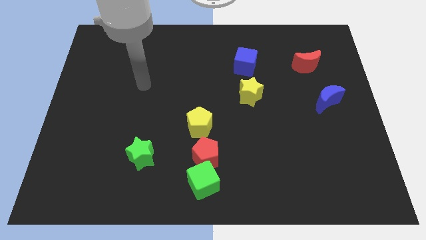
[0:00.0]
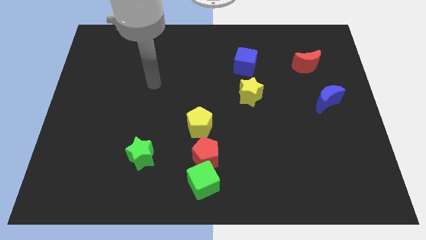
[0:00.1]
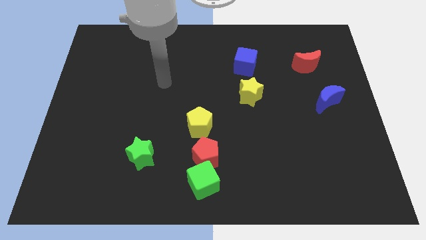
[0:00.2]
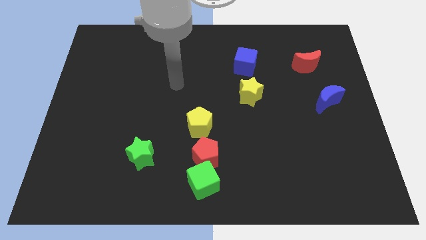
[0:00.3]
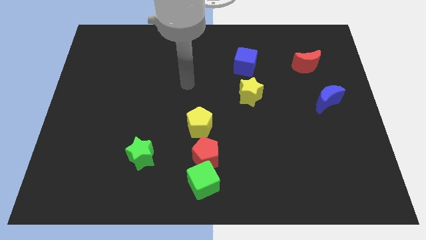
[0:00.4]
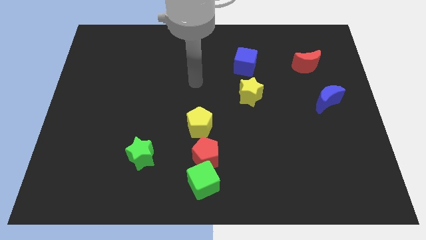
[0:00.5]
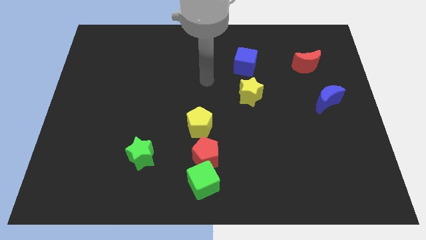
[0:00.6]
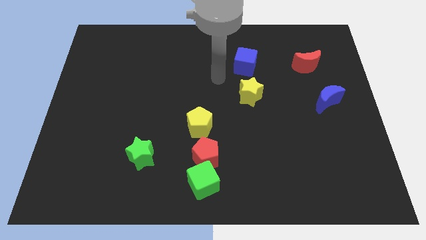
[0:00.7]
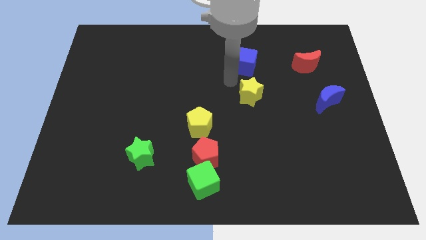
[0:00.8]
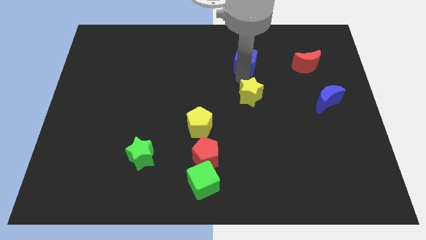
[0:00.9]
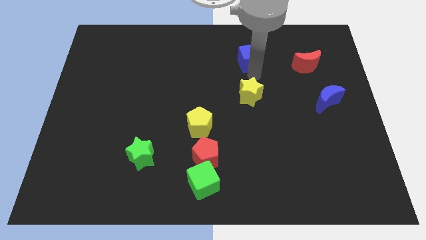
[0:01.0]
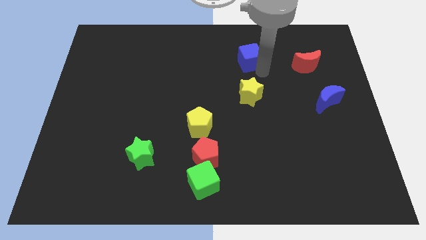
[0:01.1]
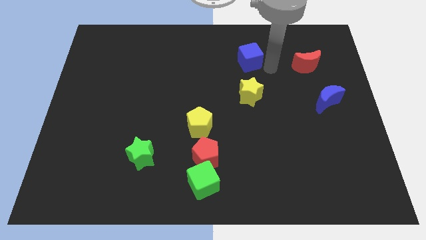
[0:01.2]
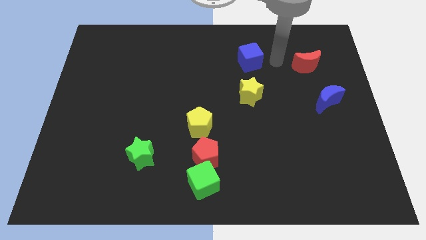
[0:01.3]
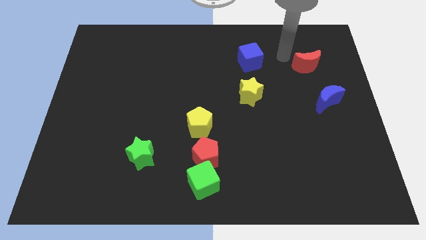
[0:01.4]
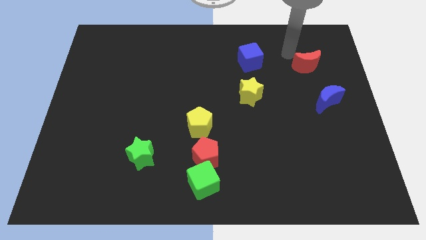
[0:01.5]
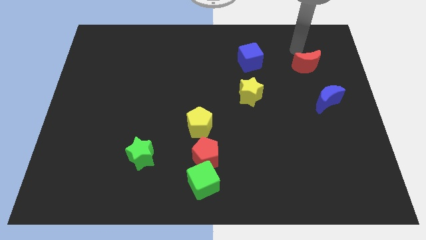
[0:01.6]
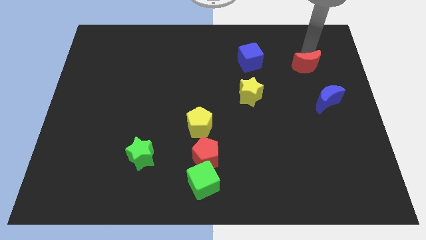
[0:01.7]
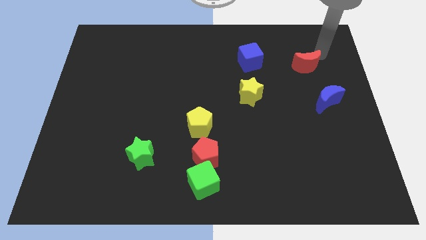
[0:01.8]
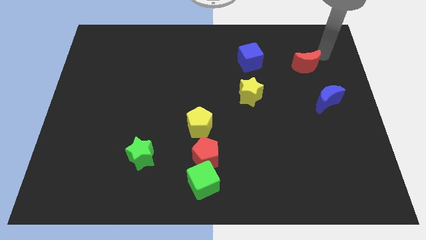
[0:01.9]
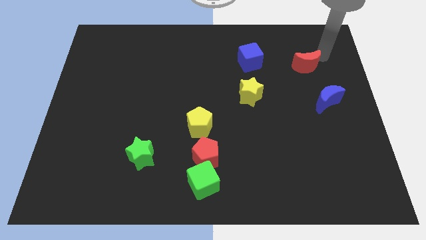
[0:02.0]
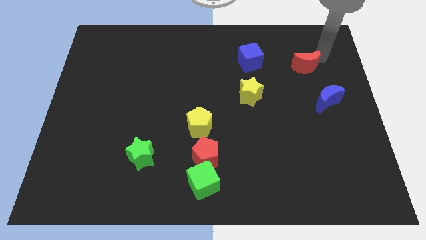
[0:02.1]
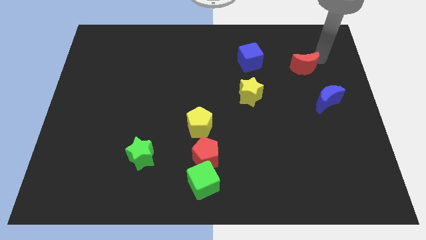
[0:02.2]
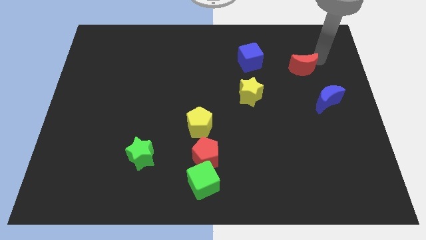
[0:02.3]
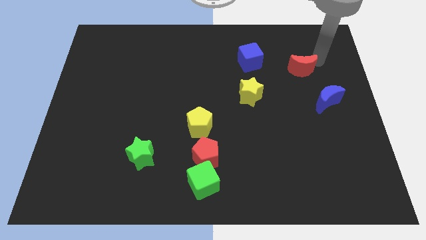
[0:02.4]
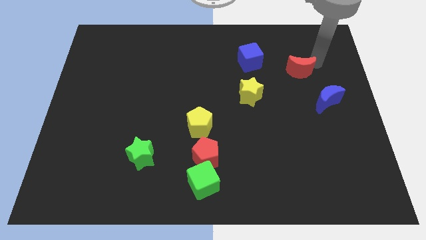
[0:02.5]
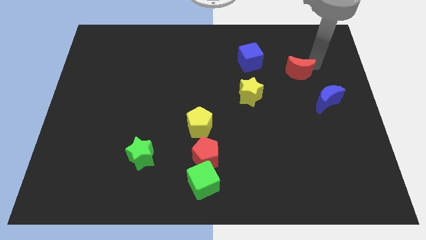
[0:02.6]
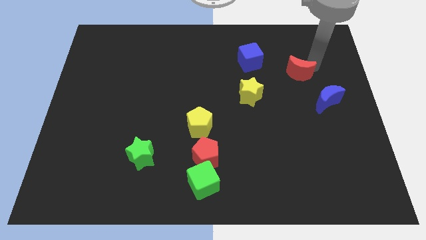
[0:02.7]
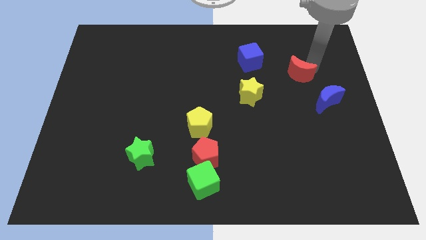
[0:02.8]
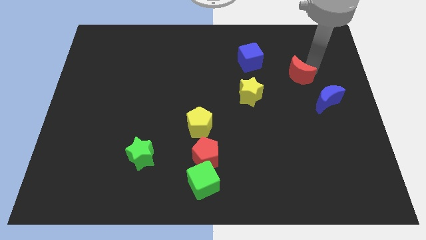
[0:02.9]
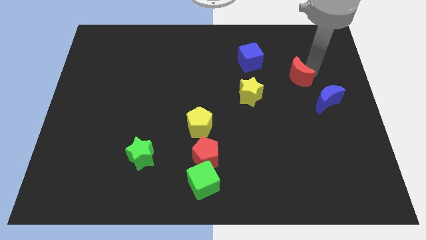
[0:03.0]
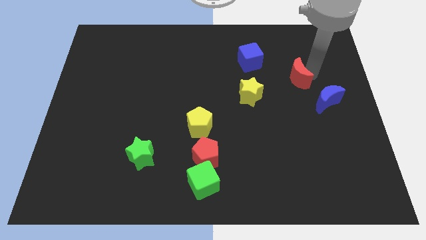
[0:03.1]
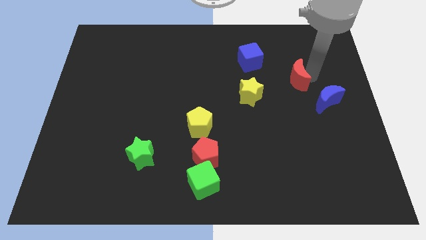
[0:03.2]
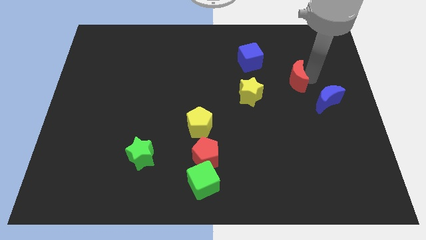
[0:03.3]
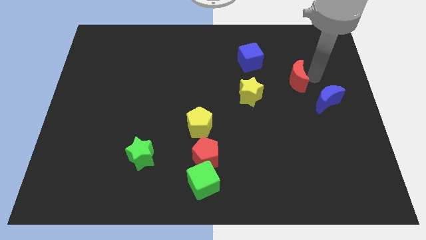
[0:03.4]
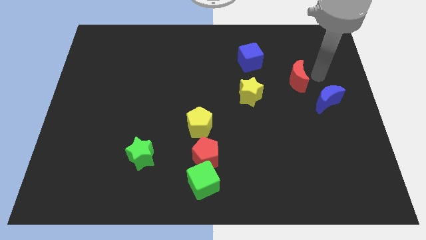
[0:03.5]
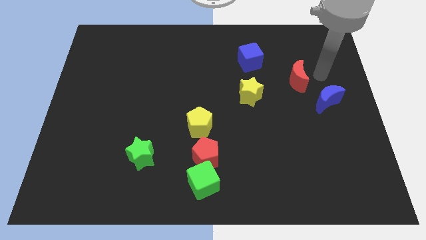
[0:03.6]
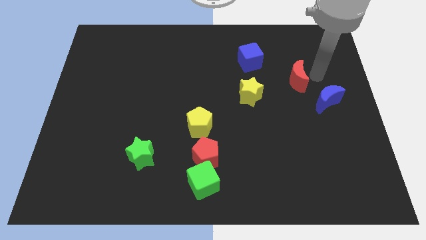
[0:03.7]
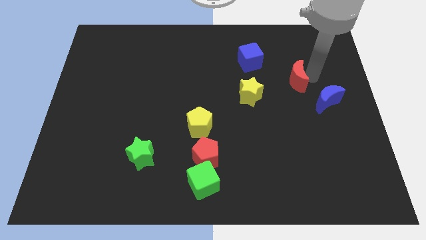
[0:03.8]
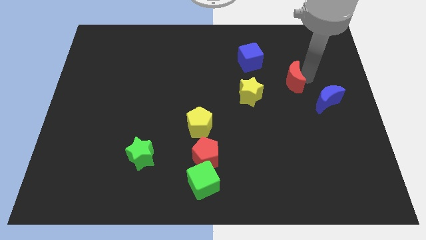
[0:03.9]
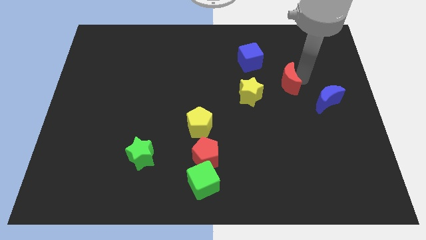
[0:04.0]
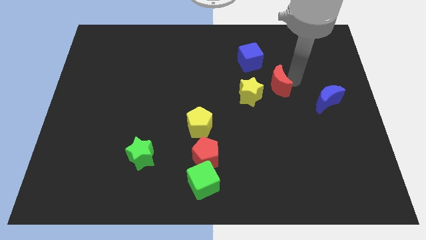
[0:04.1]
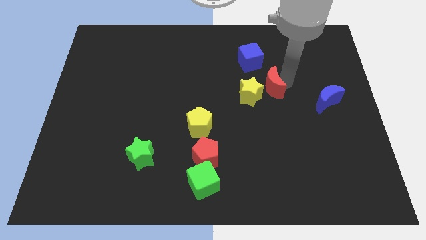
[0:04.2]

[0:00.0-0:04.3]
push the red moon towards the yellow star

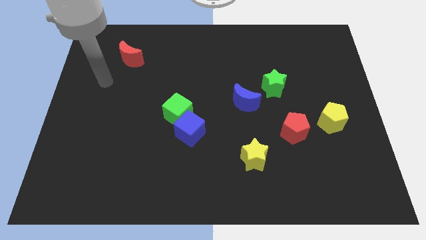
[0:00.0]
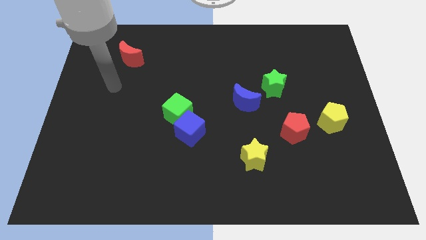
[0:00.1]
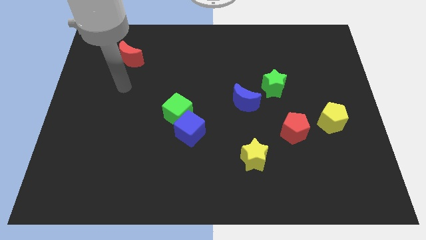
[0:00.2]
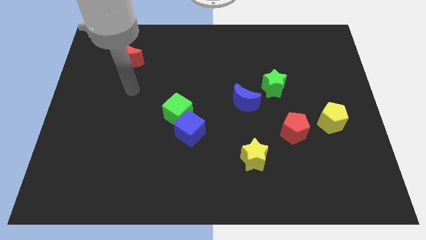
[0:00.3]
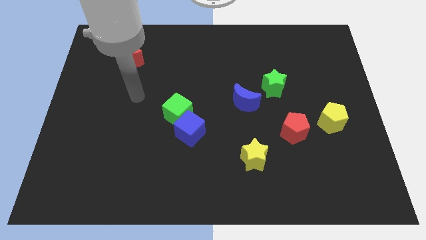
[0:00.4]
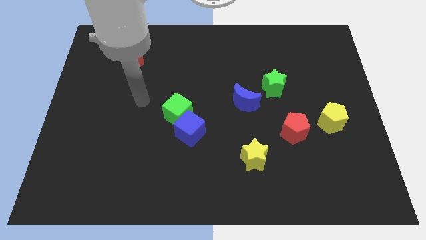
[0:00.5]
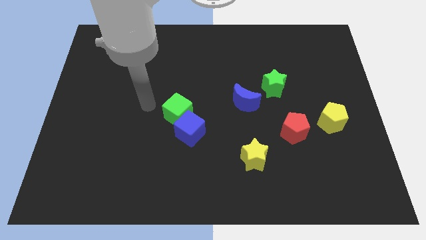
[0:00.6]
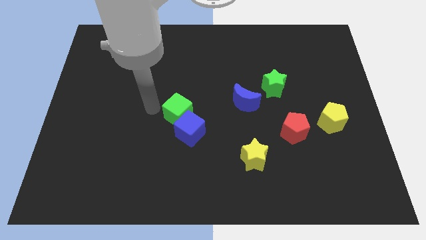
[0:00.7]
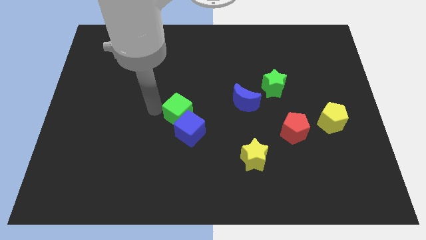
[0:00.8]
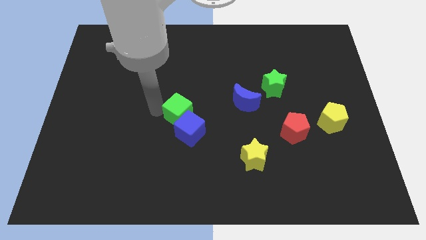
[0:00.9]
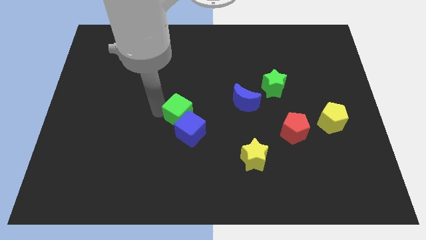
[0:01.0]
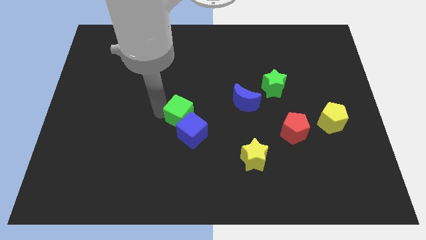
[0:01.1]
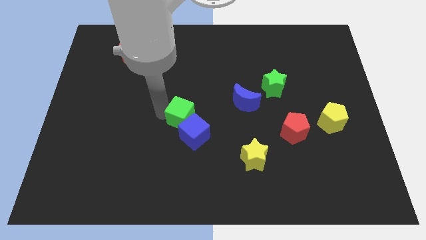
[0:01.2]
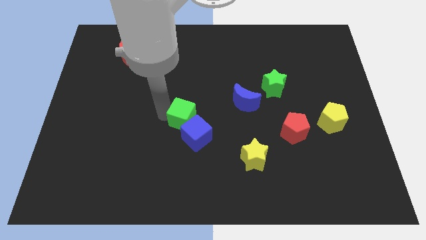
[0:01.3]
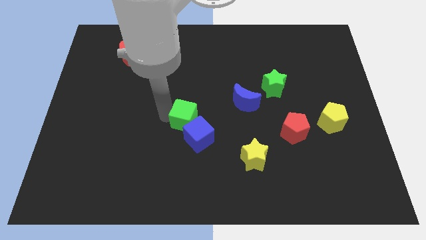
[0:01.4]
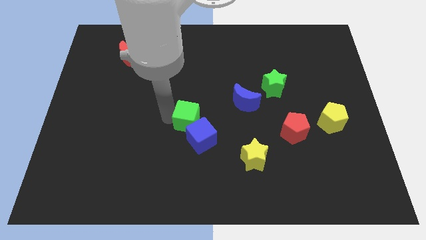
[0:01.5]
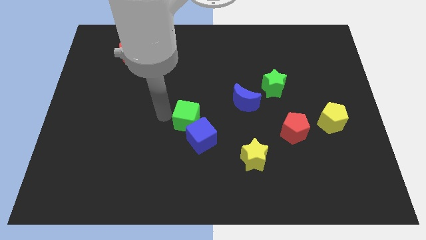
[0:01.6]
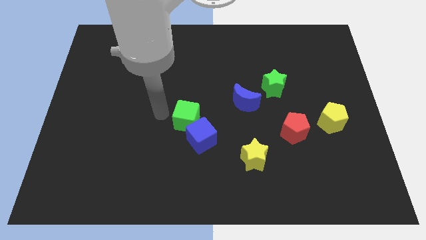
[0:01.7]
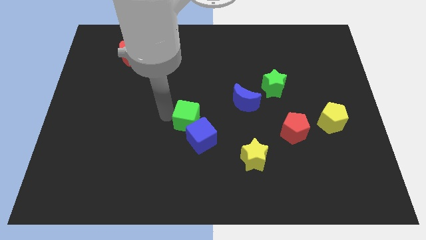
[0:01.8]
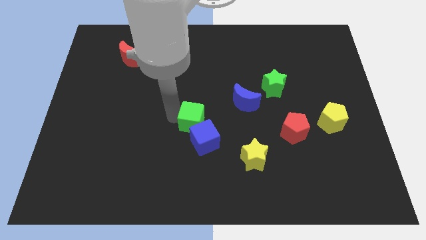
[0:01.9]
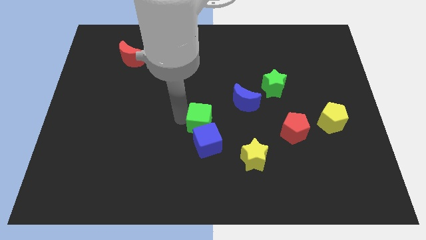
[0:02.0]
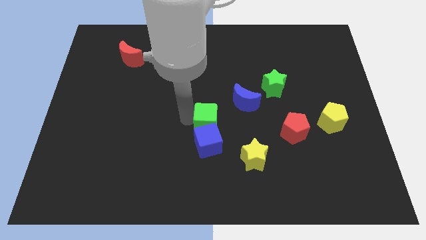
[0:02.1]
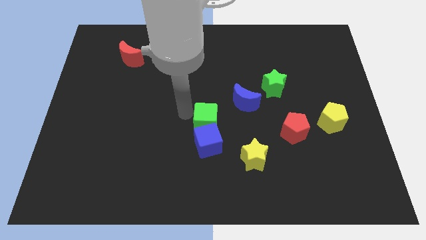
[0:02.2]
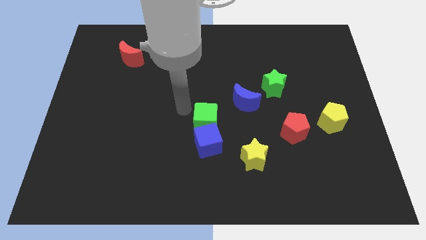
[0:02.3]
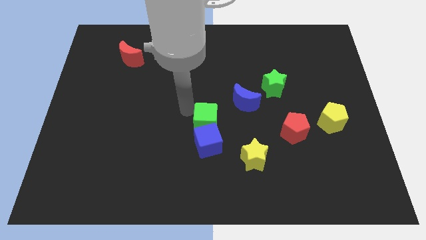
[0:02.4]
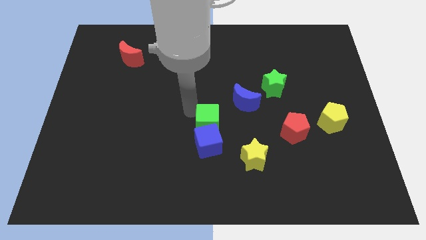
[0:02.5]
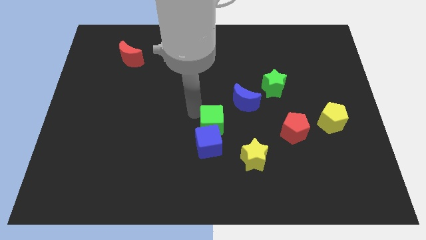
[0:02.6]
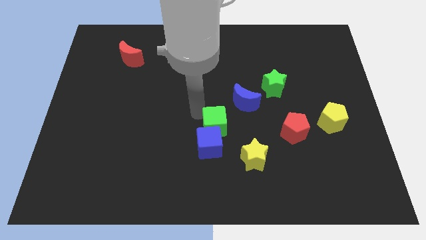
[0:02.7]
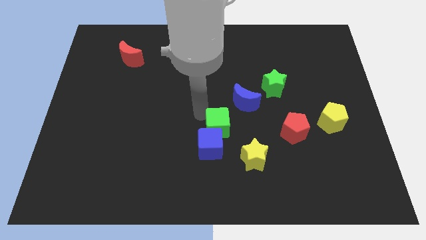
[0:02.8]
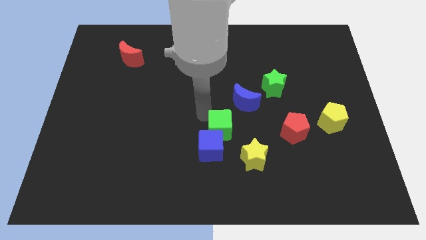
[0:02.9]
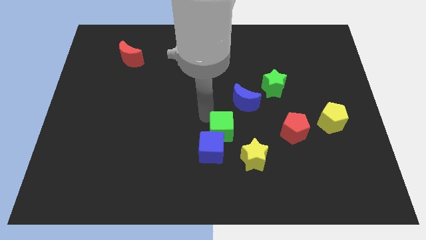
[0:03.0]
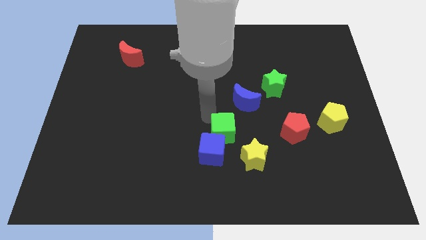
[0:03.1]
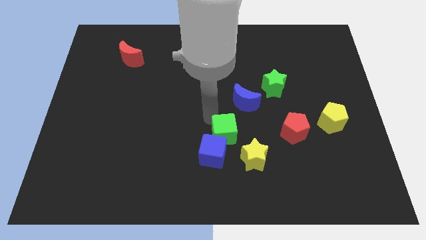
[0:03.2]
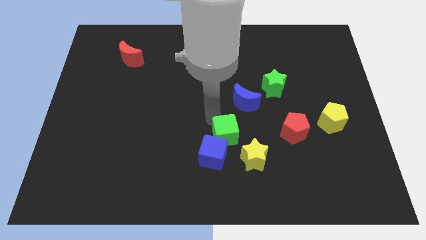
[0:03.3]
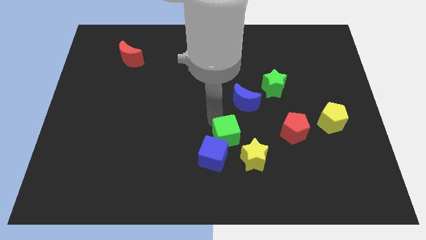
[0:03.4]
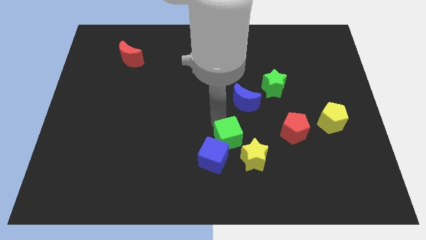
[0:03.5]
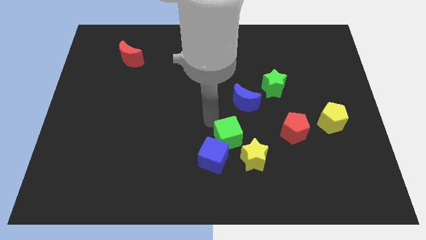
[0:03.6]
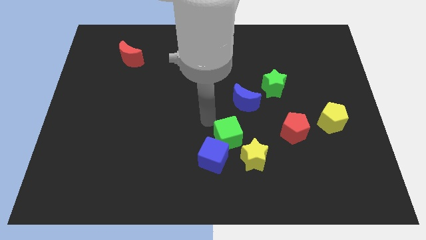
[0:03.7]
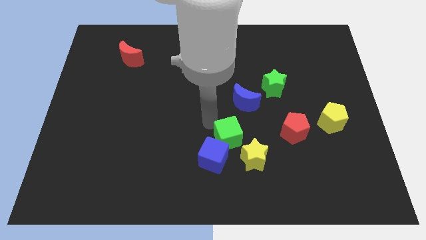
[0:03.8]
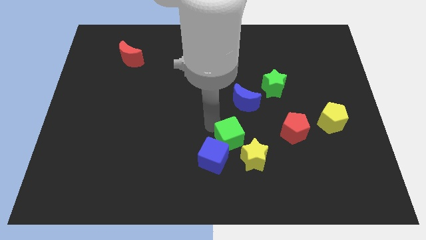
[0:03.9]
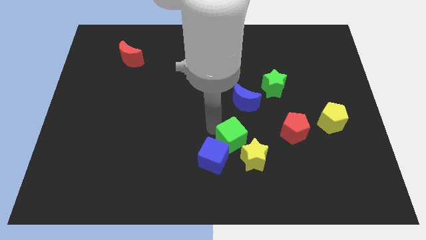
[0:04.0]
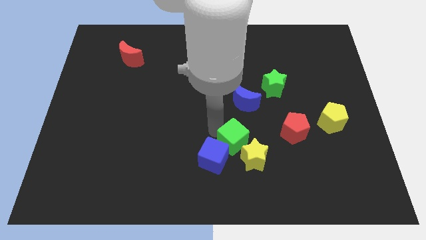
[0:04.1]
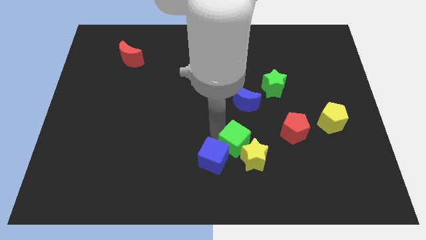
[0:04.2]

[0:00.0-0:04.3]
move the green cube to the yellow star
